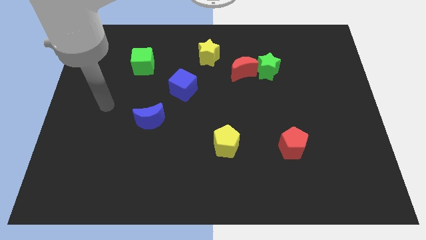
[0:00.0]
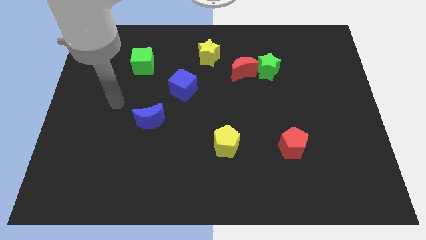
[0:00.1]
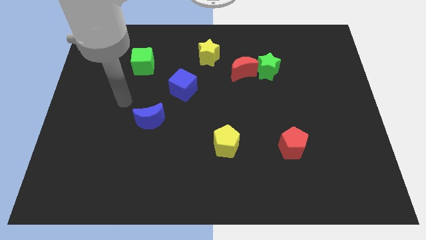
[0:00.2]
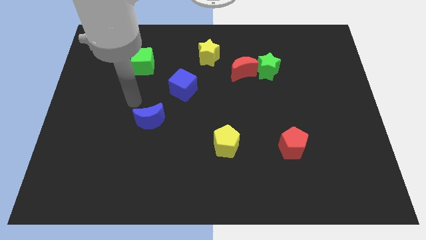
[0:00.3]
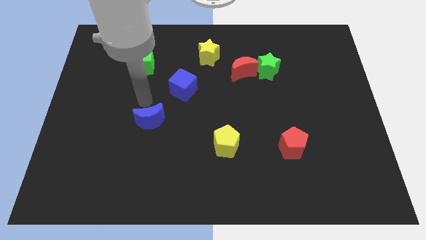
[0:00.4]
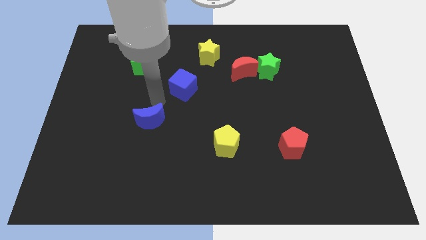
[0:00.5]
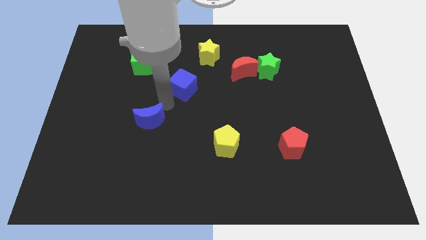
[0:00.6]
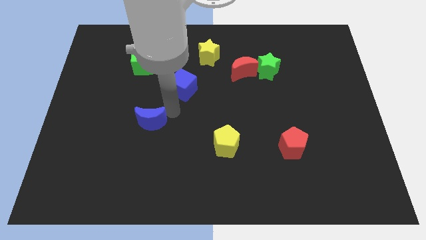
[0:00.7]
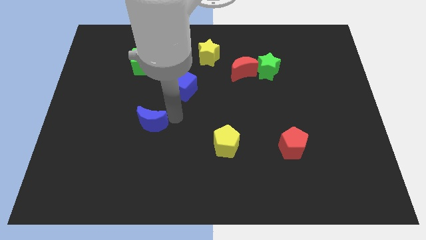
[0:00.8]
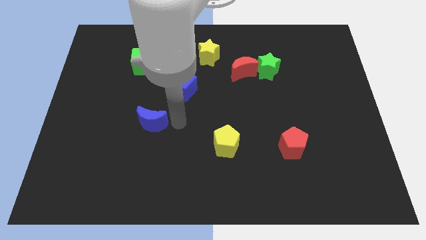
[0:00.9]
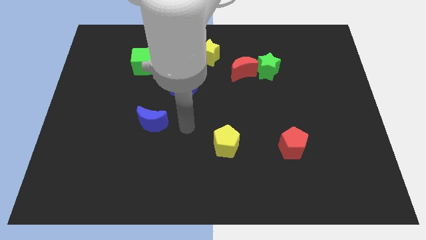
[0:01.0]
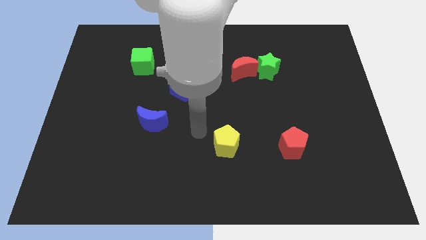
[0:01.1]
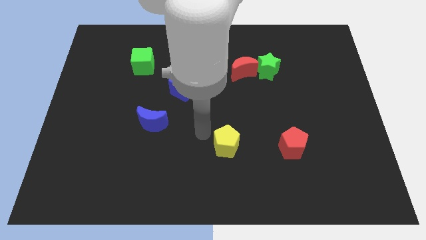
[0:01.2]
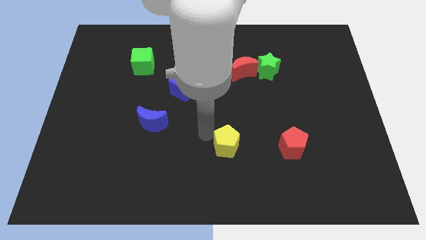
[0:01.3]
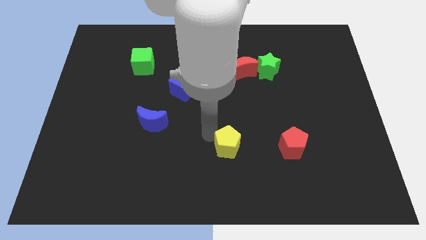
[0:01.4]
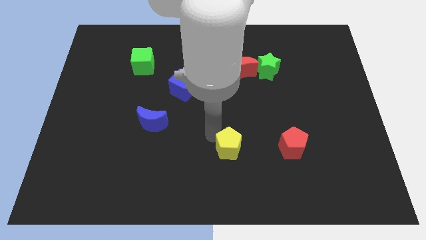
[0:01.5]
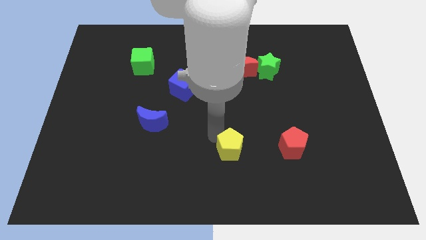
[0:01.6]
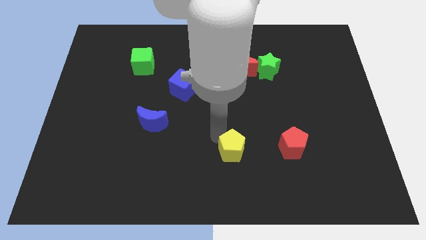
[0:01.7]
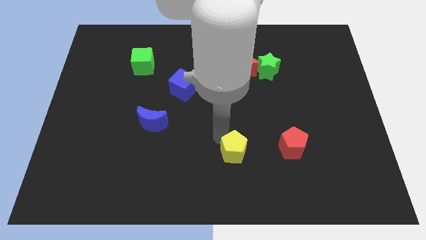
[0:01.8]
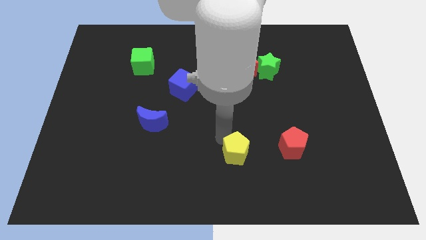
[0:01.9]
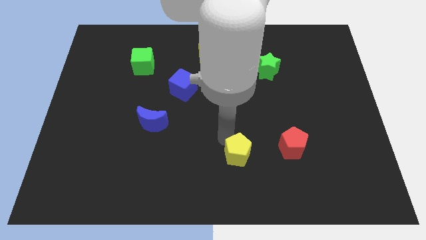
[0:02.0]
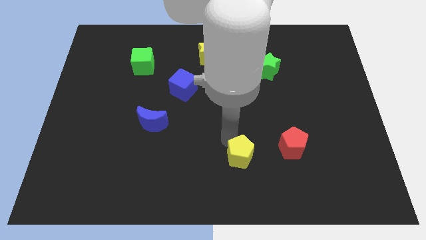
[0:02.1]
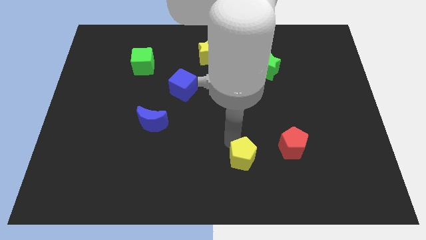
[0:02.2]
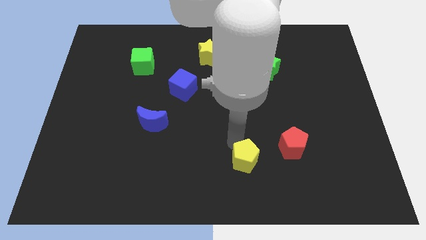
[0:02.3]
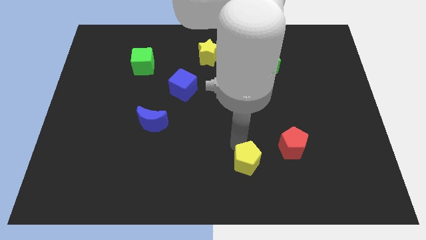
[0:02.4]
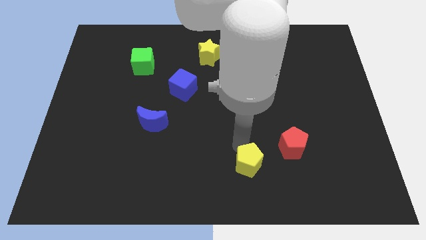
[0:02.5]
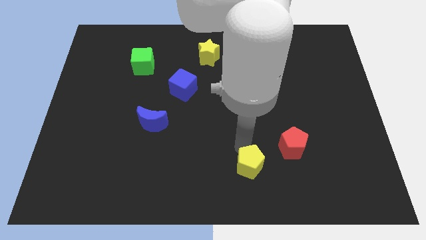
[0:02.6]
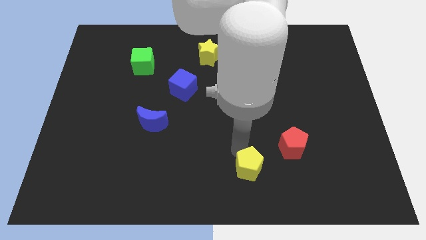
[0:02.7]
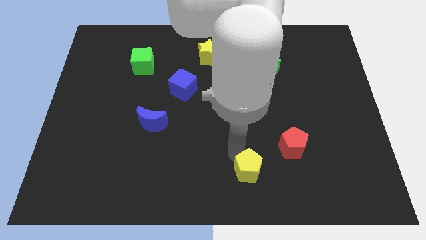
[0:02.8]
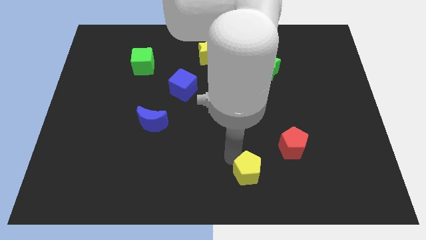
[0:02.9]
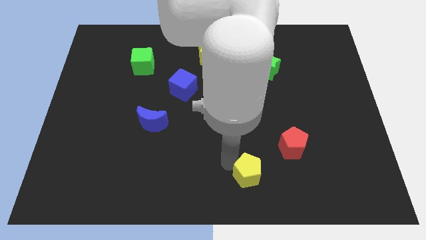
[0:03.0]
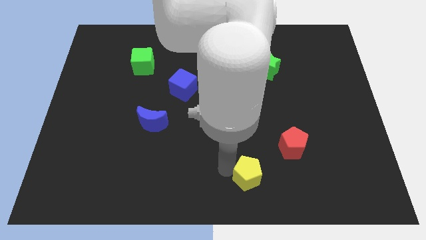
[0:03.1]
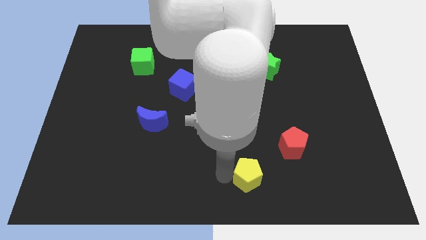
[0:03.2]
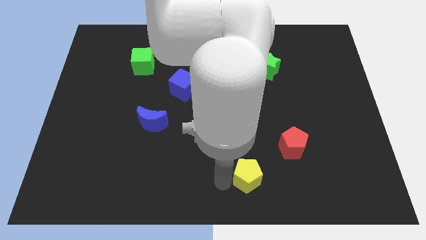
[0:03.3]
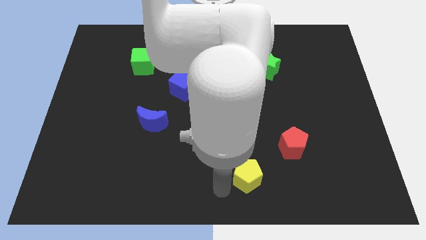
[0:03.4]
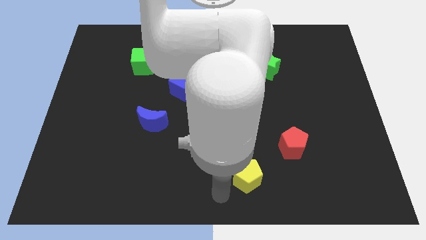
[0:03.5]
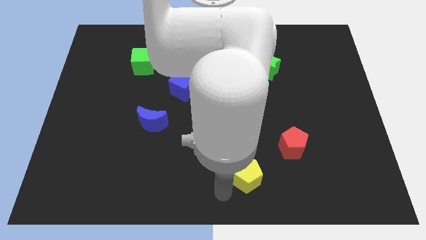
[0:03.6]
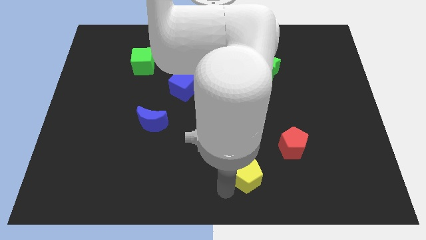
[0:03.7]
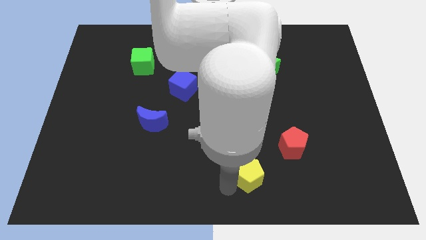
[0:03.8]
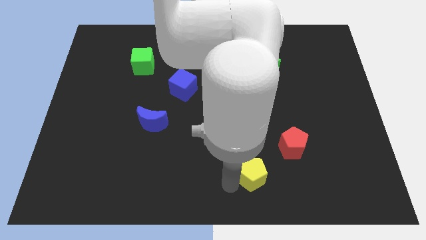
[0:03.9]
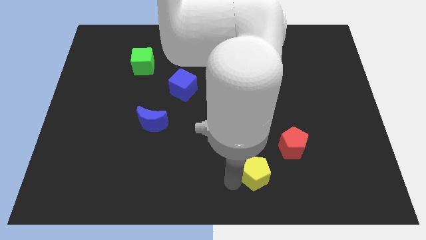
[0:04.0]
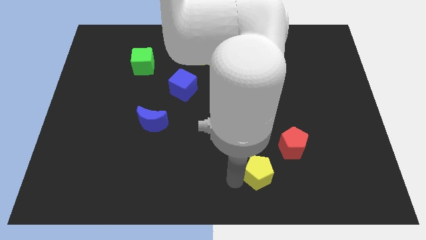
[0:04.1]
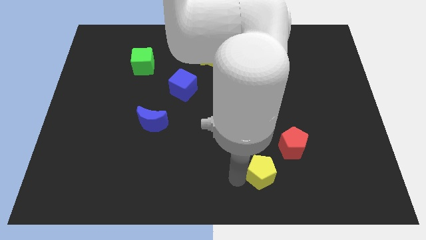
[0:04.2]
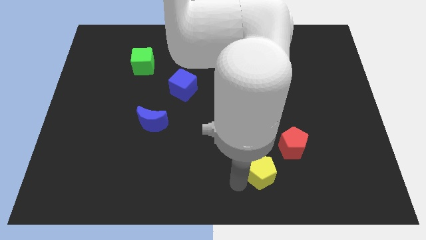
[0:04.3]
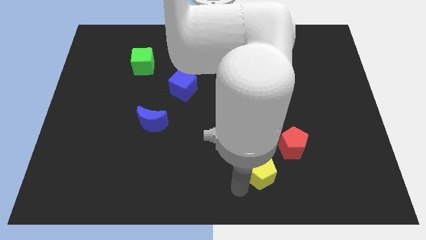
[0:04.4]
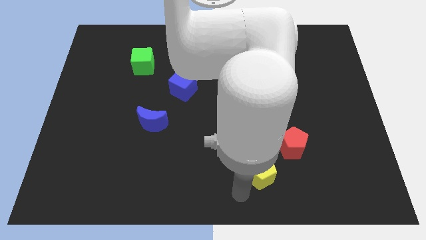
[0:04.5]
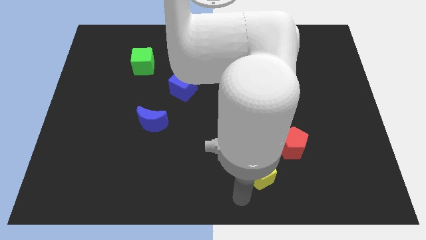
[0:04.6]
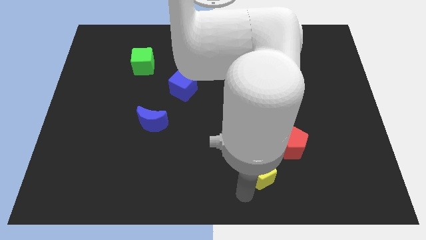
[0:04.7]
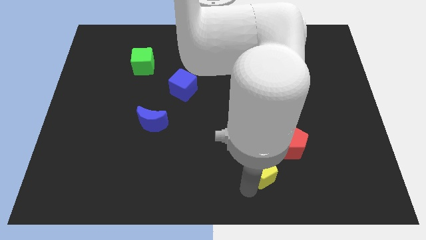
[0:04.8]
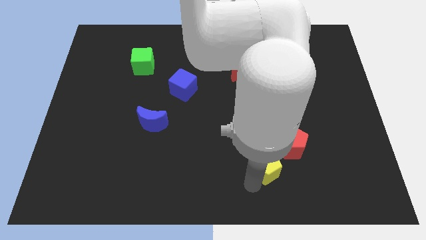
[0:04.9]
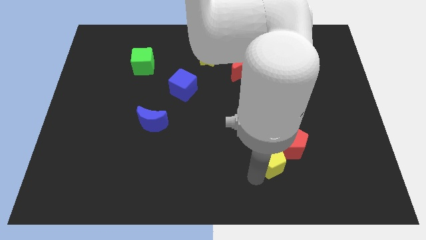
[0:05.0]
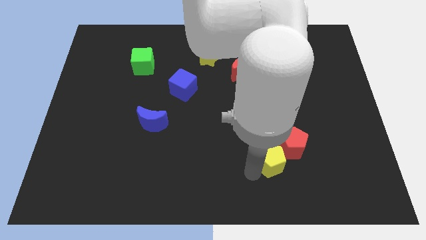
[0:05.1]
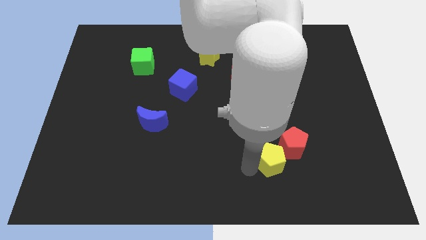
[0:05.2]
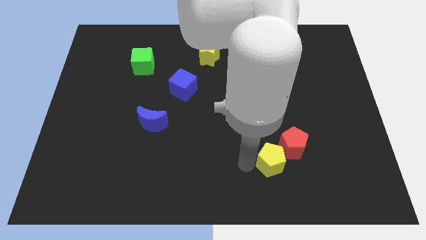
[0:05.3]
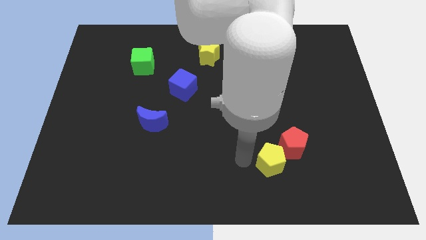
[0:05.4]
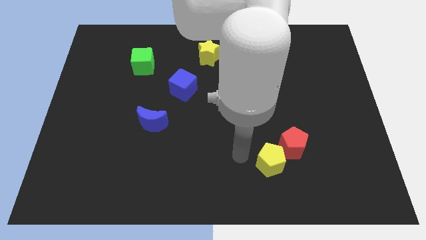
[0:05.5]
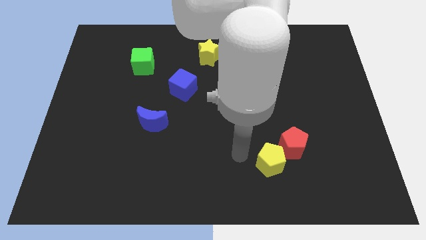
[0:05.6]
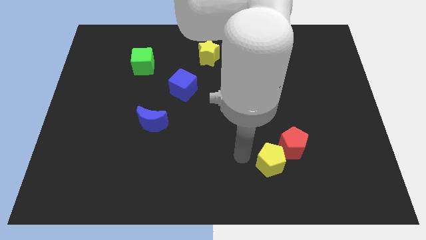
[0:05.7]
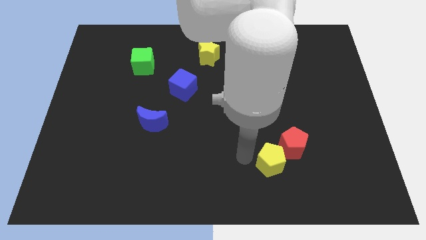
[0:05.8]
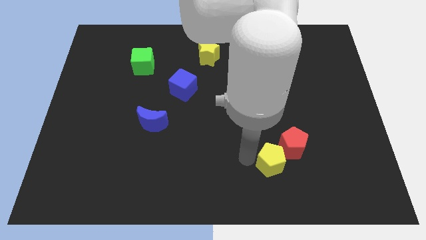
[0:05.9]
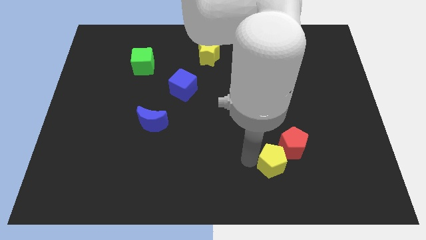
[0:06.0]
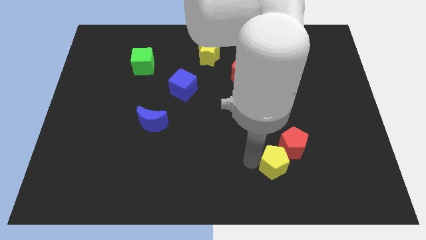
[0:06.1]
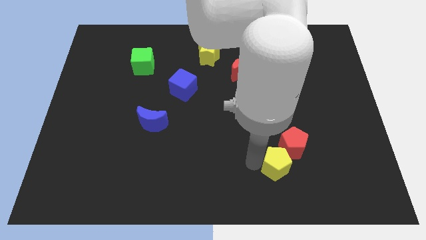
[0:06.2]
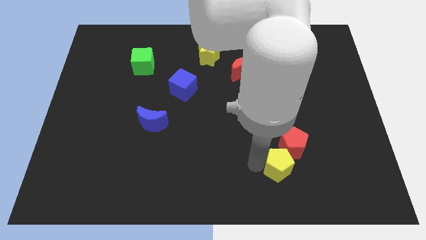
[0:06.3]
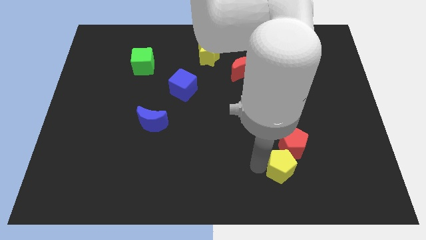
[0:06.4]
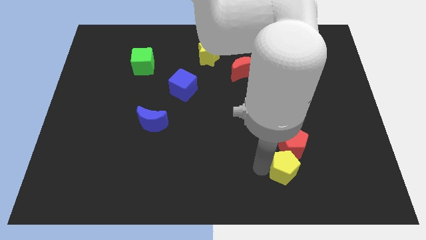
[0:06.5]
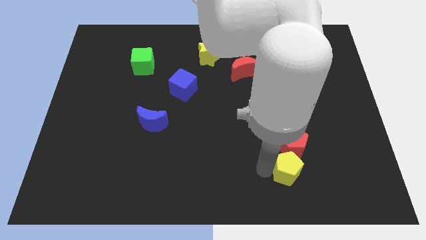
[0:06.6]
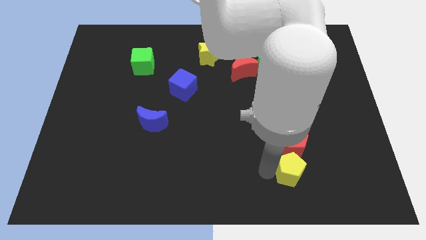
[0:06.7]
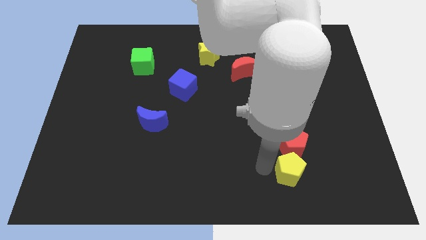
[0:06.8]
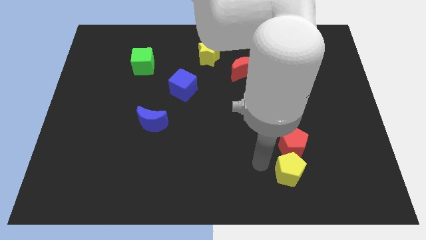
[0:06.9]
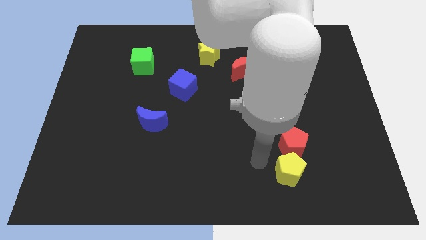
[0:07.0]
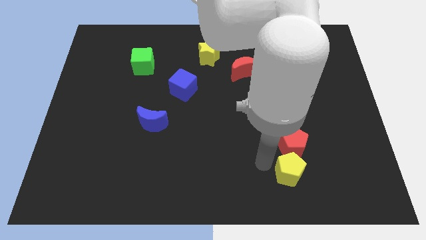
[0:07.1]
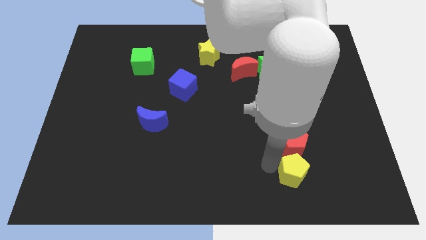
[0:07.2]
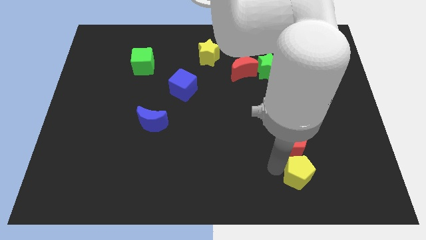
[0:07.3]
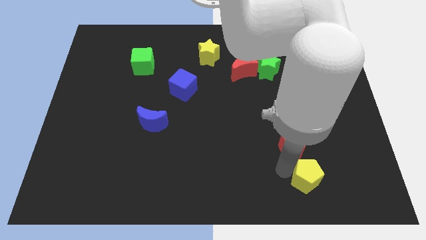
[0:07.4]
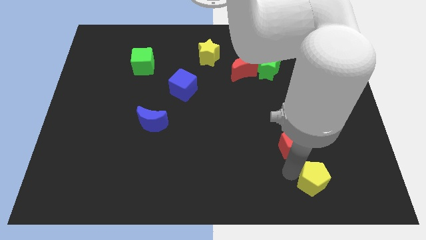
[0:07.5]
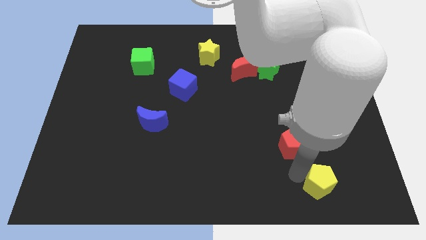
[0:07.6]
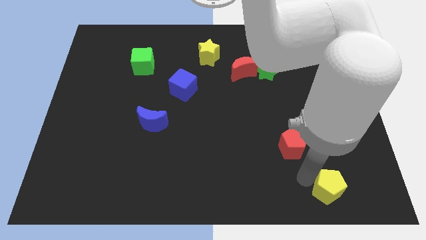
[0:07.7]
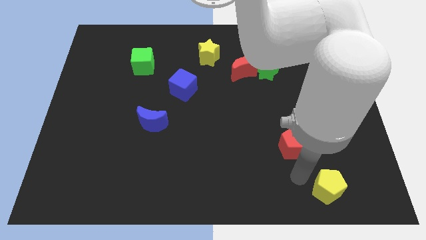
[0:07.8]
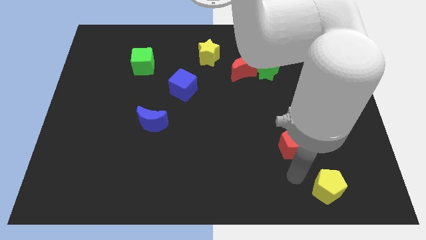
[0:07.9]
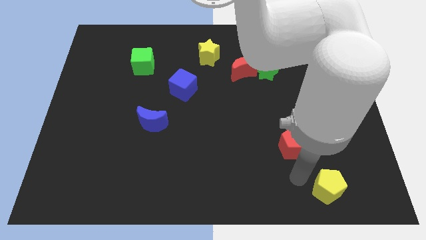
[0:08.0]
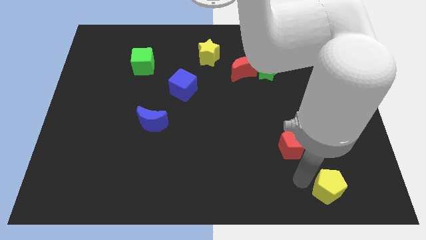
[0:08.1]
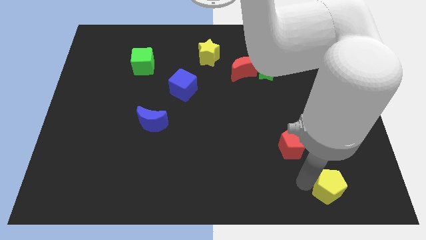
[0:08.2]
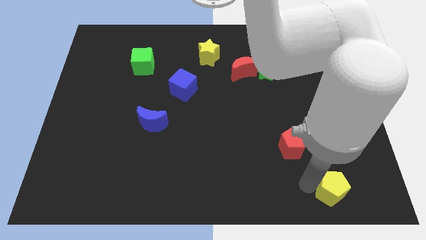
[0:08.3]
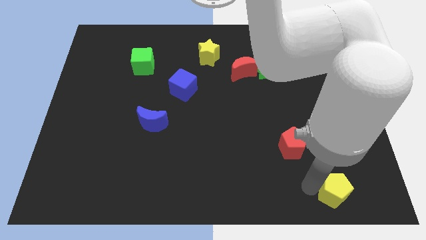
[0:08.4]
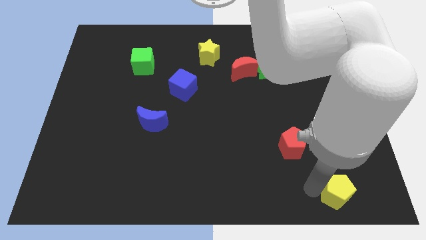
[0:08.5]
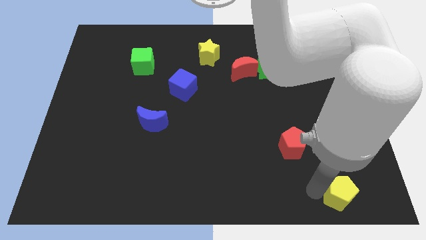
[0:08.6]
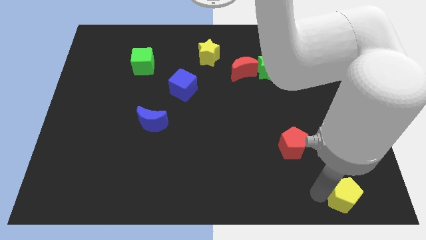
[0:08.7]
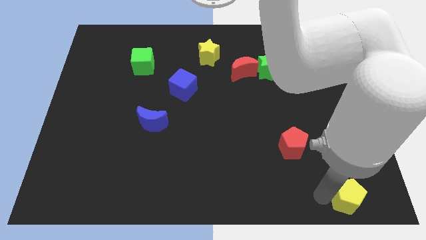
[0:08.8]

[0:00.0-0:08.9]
slide the yellow pentagon to the lower right corner
